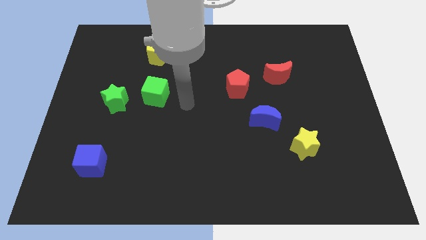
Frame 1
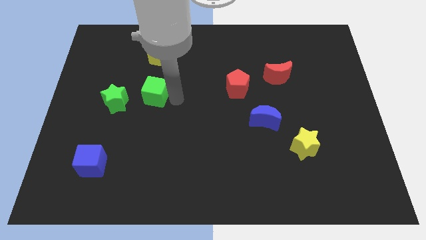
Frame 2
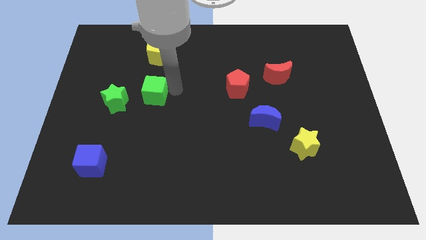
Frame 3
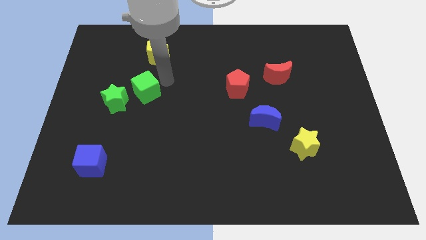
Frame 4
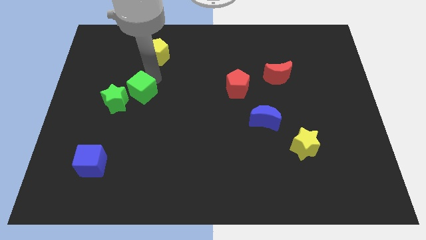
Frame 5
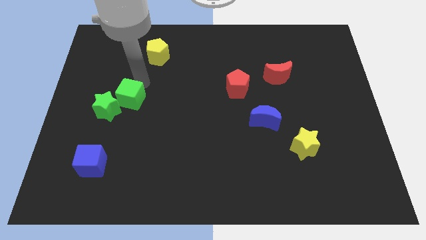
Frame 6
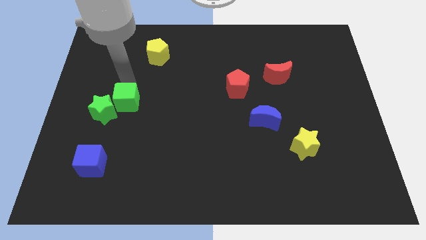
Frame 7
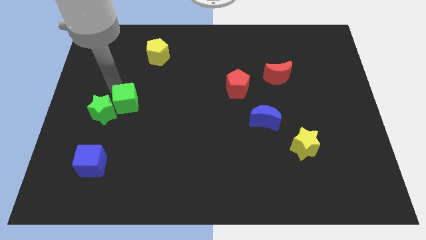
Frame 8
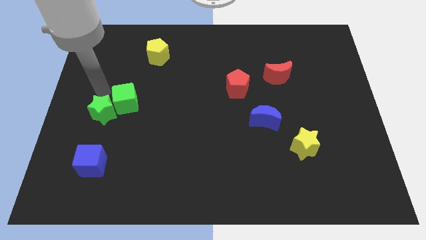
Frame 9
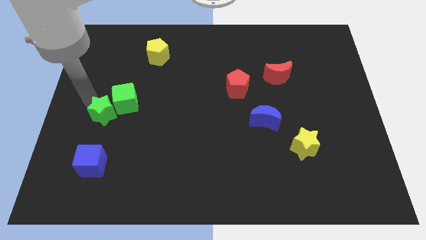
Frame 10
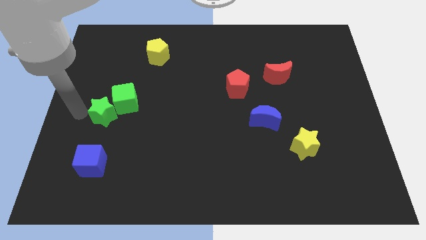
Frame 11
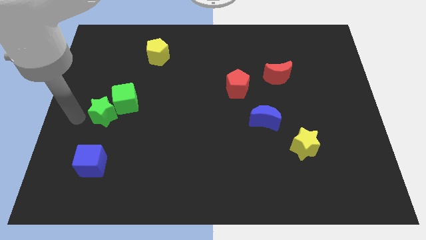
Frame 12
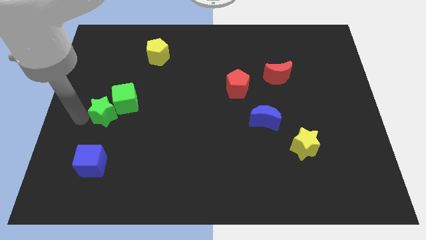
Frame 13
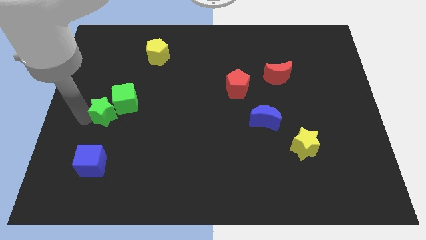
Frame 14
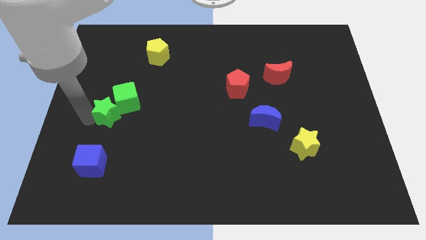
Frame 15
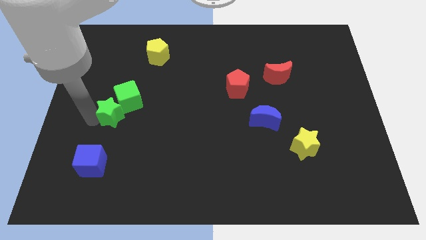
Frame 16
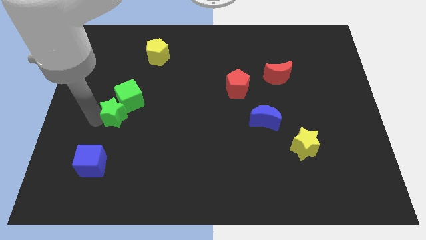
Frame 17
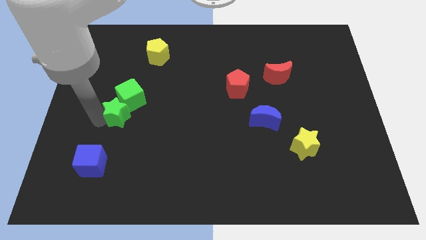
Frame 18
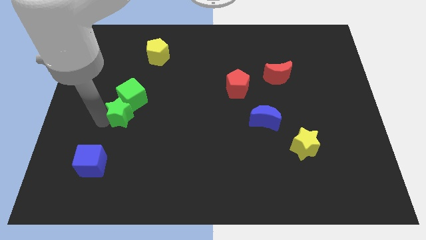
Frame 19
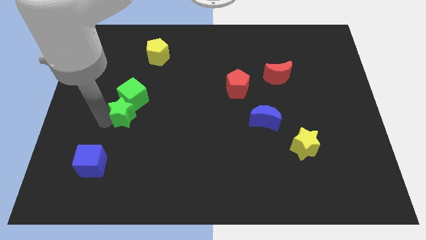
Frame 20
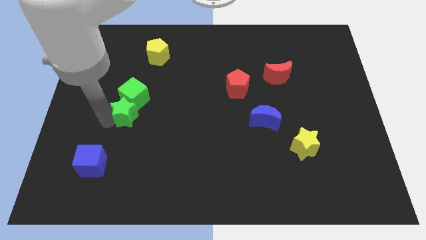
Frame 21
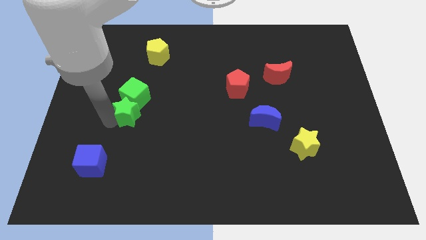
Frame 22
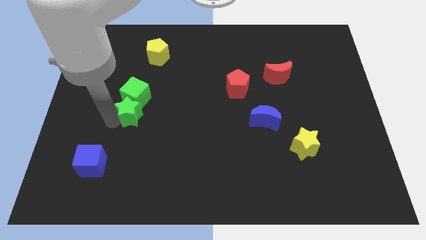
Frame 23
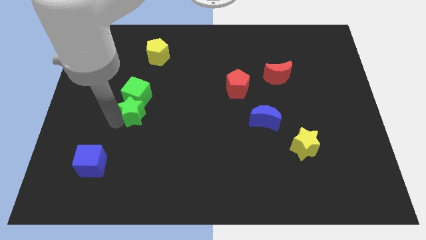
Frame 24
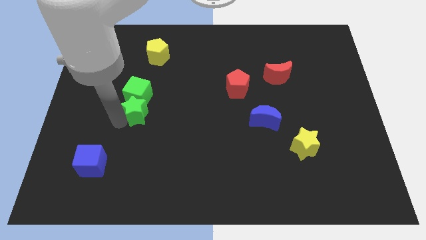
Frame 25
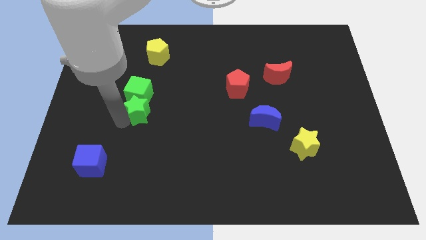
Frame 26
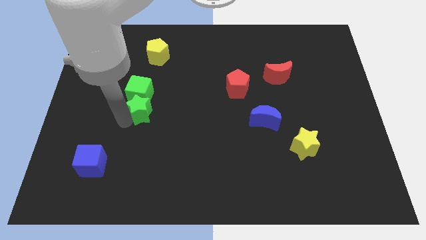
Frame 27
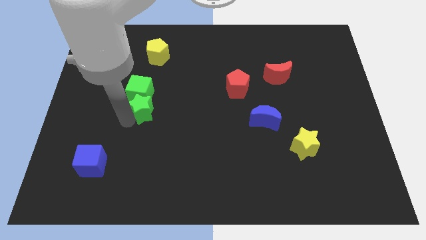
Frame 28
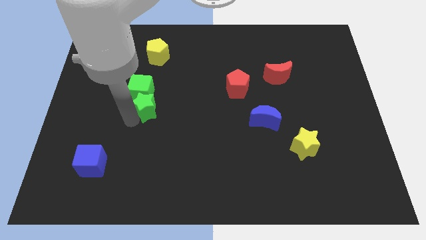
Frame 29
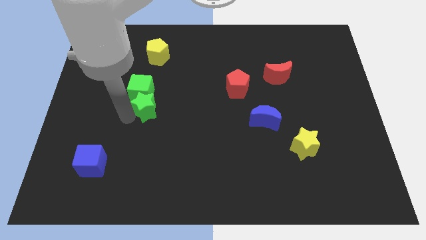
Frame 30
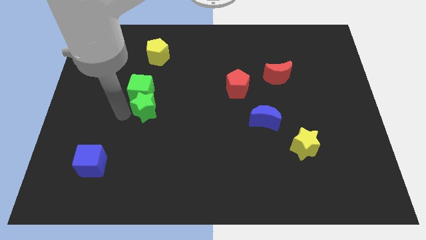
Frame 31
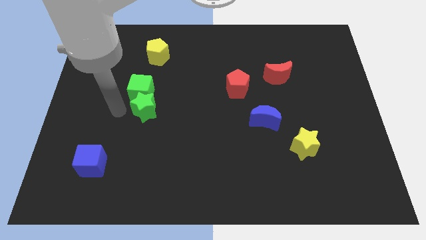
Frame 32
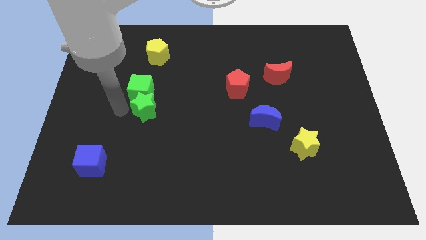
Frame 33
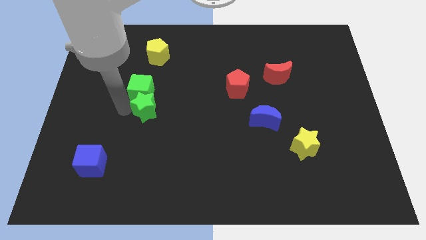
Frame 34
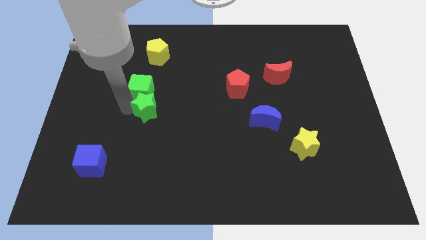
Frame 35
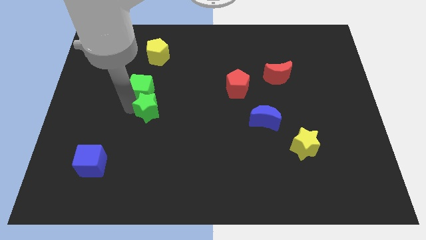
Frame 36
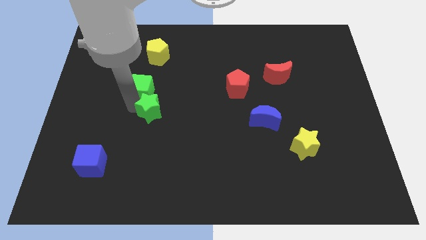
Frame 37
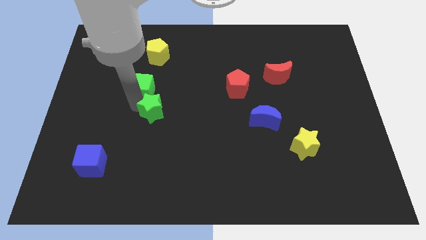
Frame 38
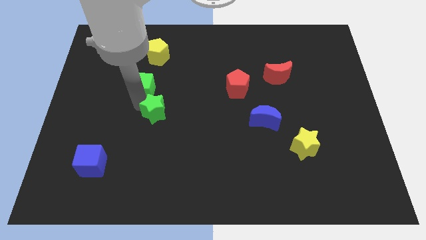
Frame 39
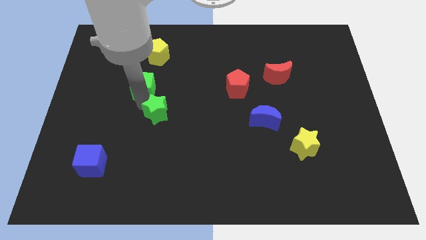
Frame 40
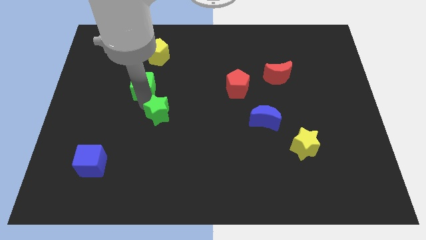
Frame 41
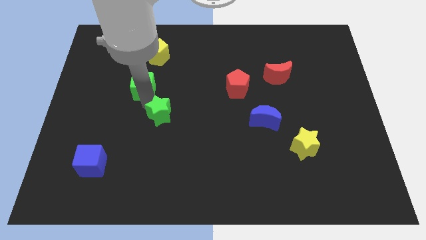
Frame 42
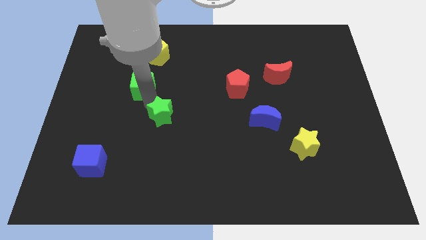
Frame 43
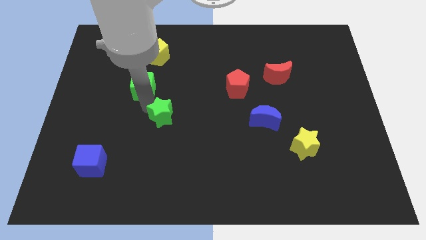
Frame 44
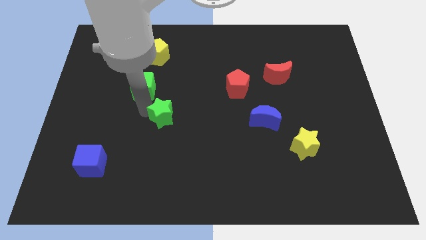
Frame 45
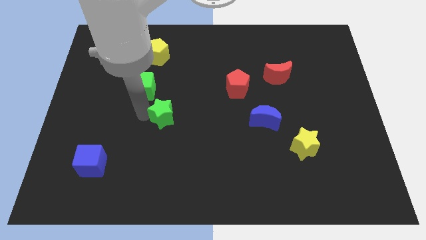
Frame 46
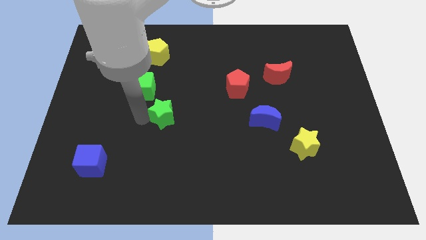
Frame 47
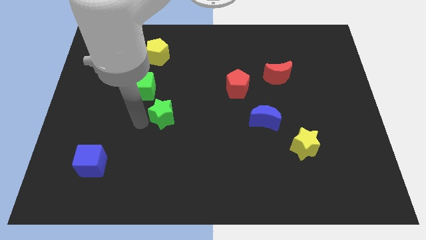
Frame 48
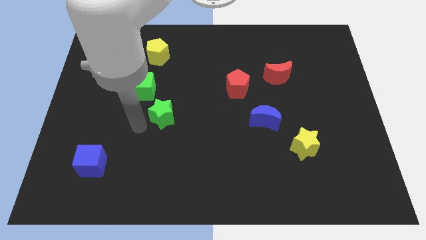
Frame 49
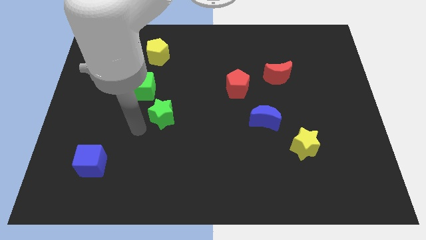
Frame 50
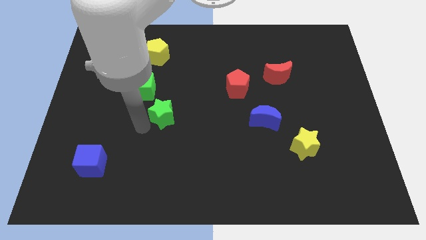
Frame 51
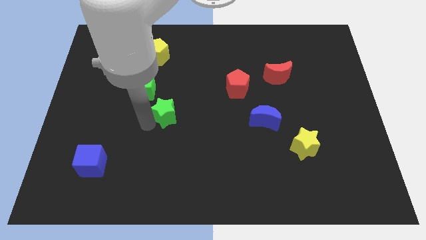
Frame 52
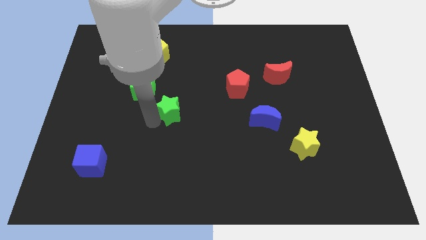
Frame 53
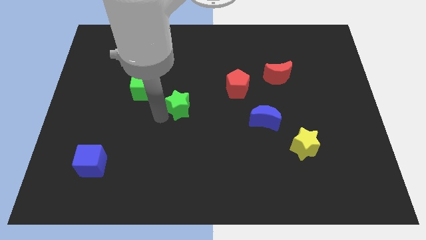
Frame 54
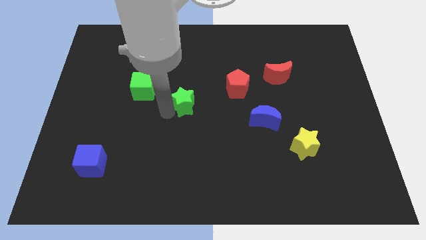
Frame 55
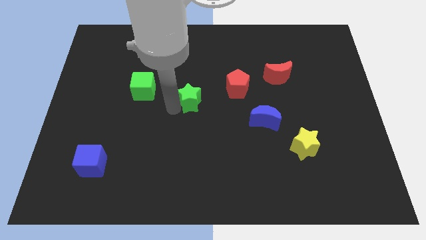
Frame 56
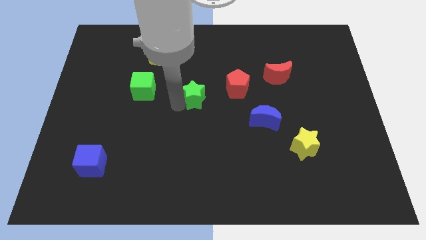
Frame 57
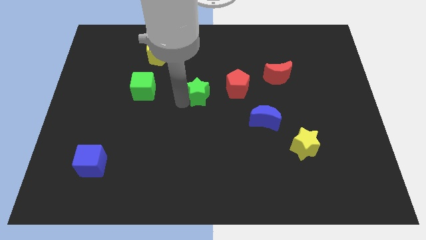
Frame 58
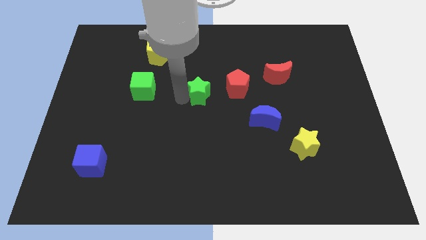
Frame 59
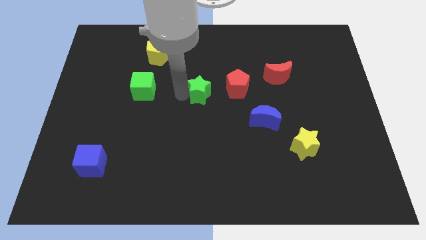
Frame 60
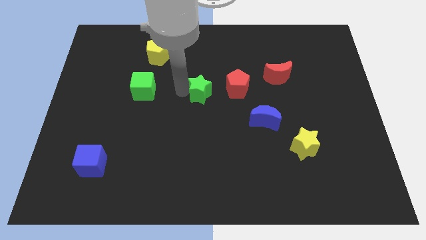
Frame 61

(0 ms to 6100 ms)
push the green star to the right

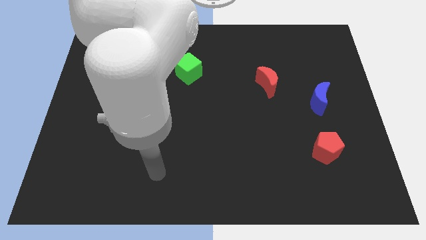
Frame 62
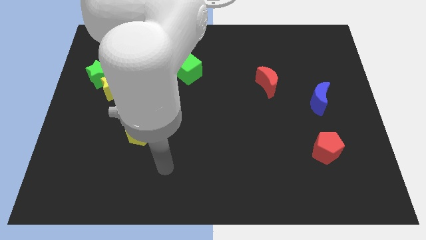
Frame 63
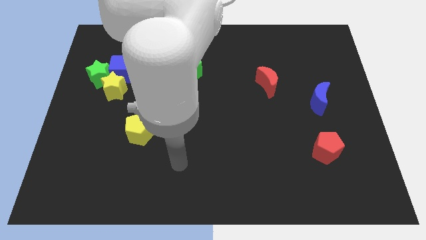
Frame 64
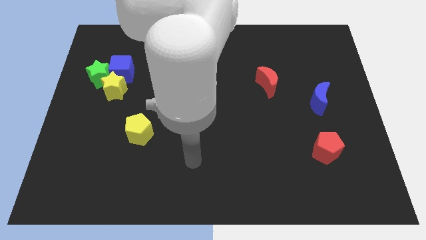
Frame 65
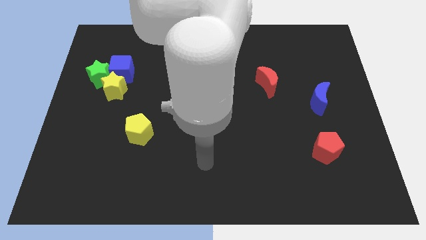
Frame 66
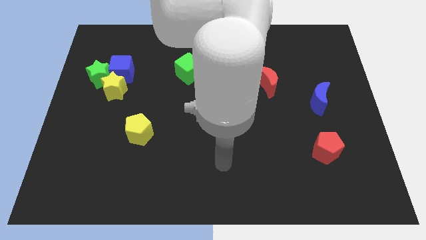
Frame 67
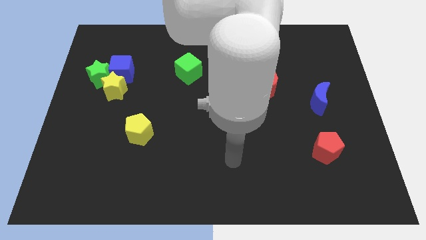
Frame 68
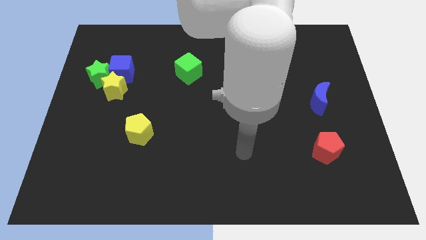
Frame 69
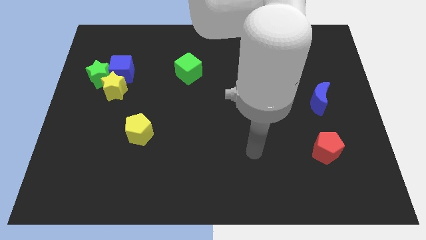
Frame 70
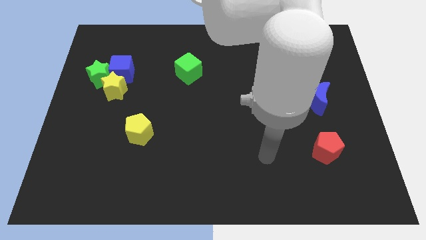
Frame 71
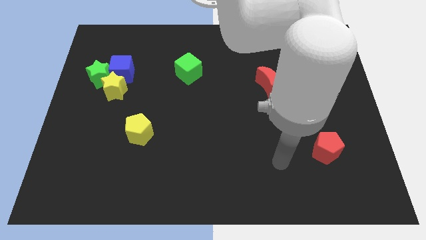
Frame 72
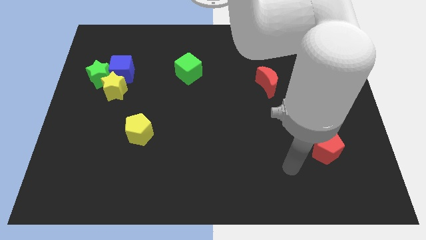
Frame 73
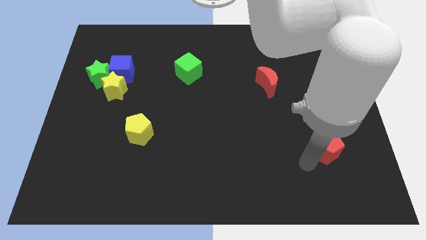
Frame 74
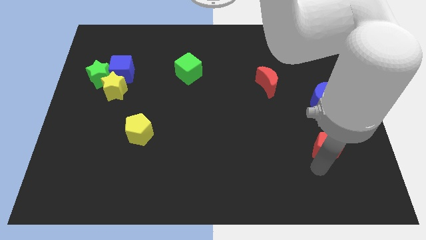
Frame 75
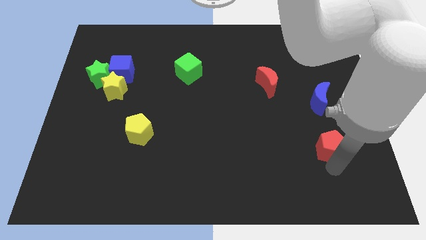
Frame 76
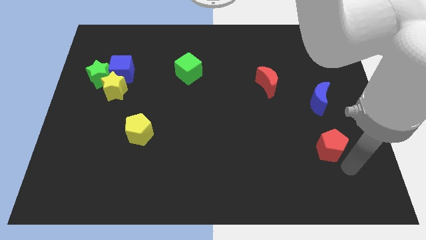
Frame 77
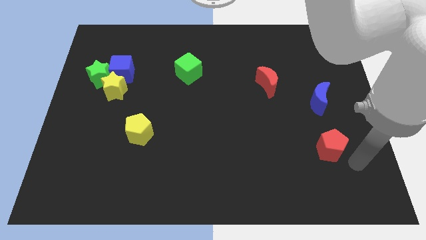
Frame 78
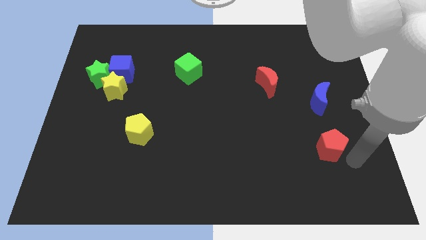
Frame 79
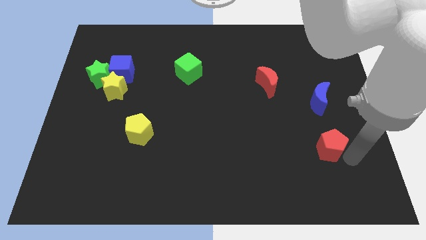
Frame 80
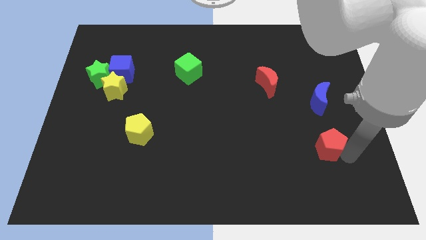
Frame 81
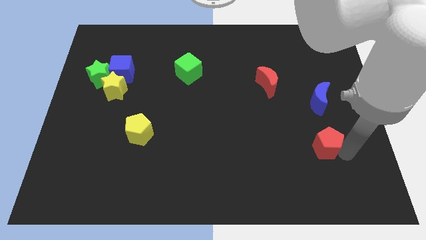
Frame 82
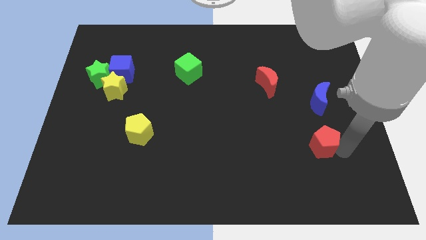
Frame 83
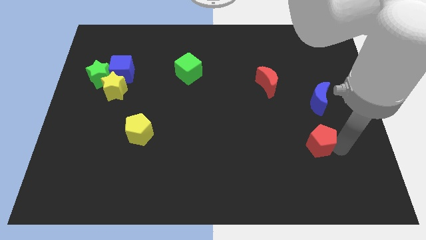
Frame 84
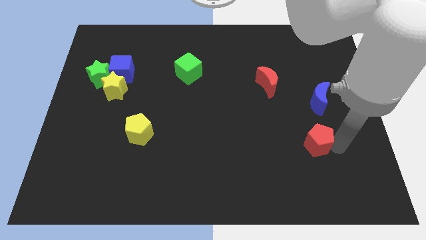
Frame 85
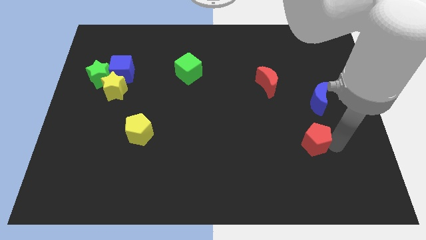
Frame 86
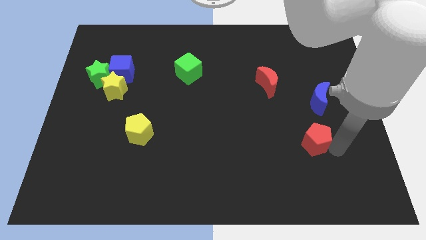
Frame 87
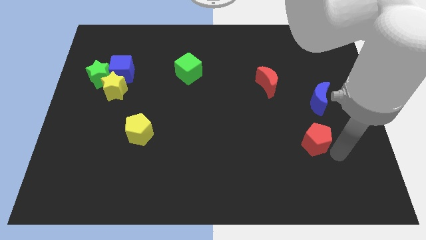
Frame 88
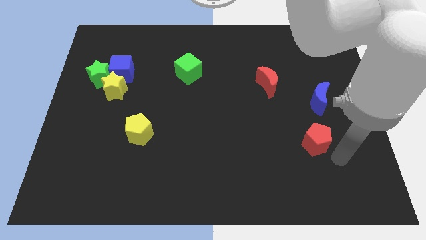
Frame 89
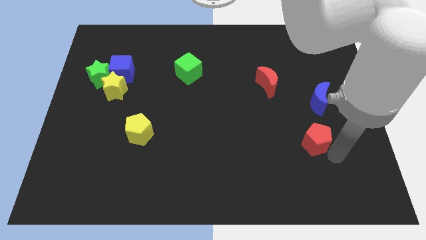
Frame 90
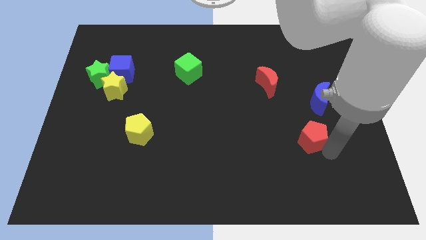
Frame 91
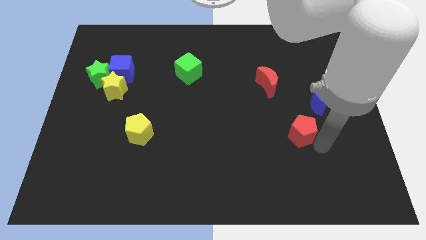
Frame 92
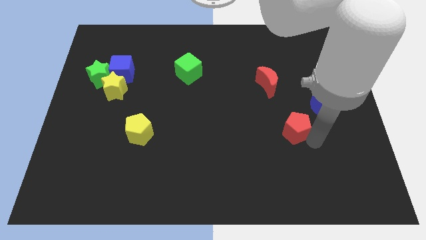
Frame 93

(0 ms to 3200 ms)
move the red pentagon somewhat upwards and then to the left
